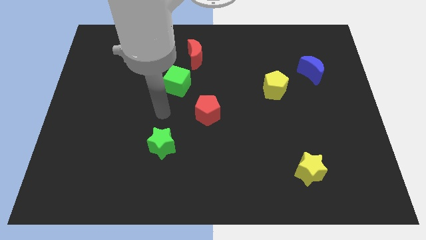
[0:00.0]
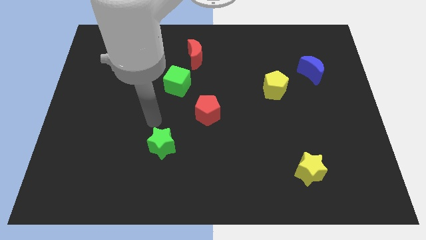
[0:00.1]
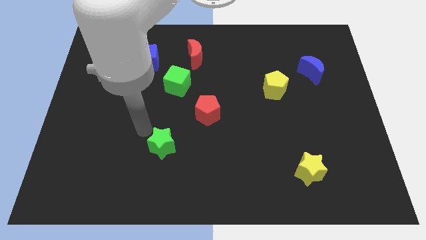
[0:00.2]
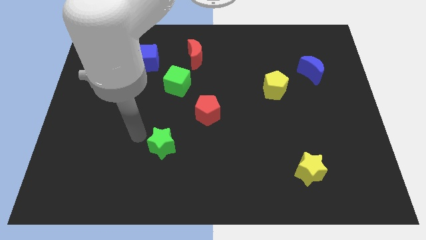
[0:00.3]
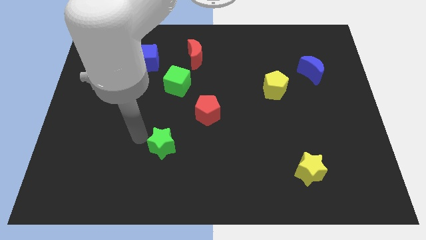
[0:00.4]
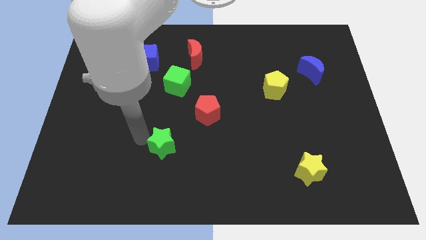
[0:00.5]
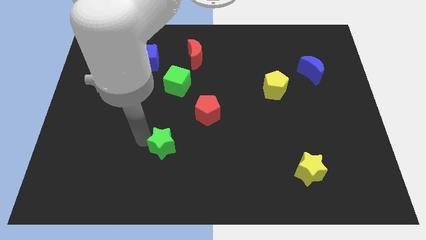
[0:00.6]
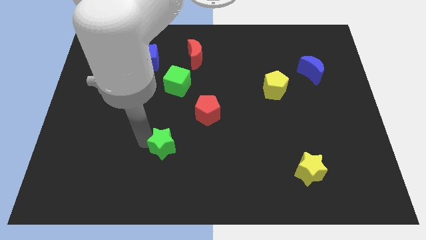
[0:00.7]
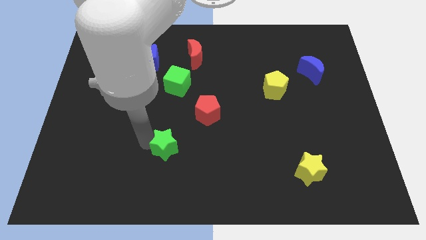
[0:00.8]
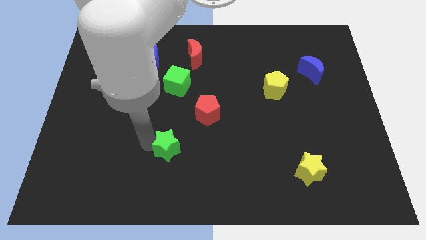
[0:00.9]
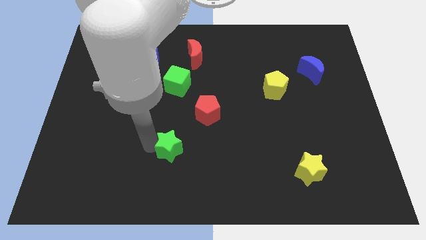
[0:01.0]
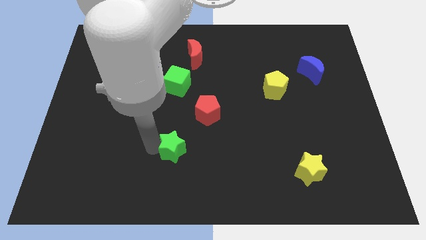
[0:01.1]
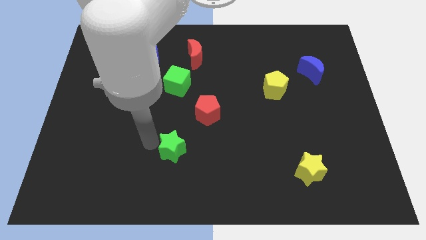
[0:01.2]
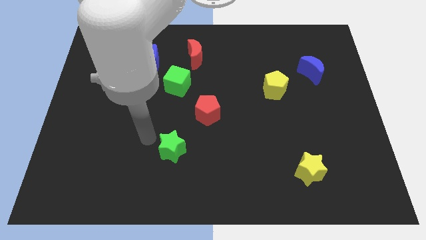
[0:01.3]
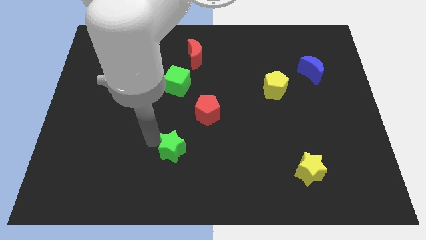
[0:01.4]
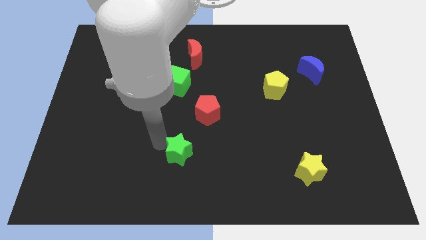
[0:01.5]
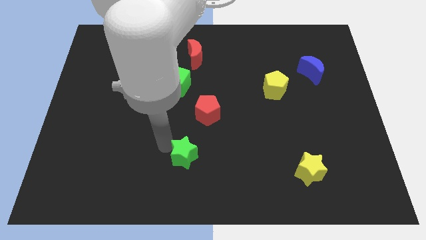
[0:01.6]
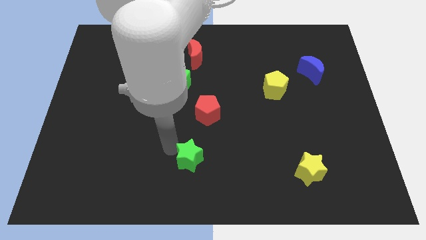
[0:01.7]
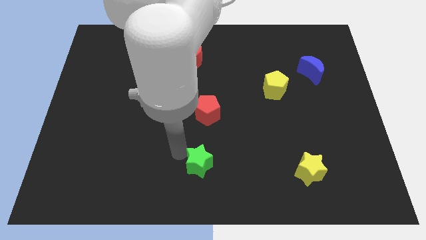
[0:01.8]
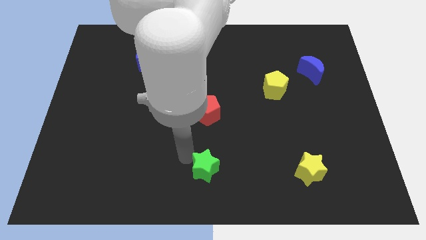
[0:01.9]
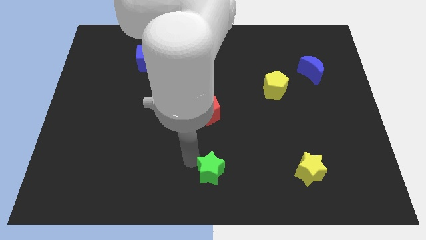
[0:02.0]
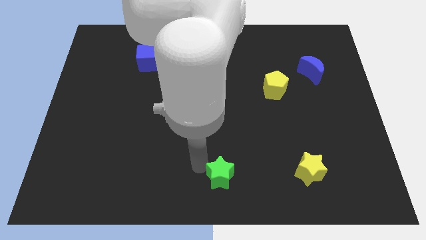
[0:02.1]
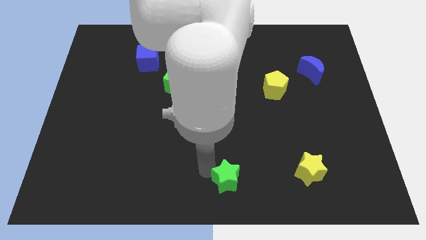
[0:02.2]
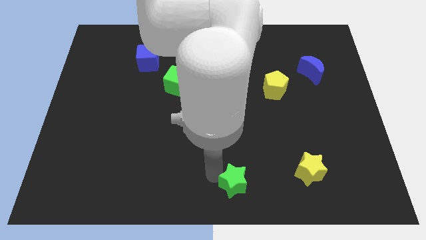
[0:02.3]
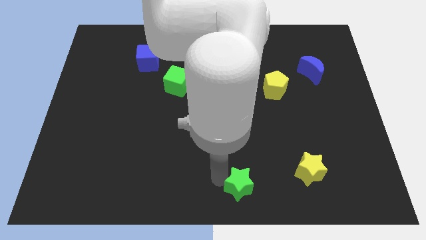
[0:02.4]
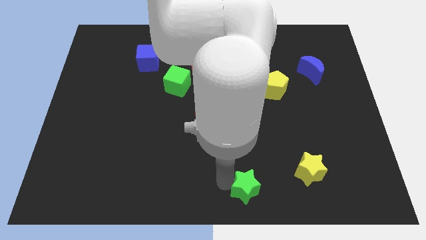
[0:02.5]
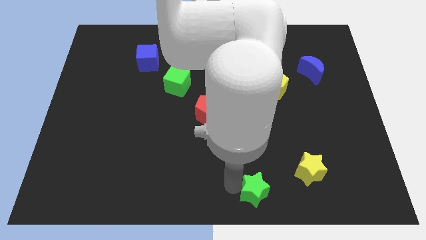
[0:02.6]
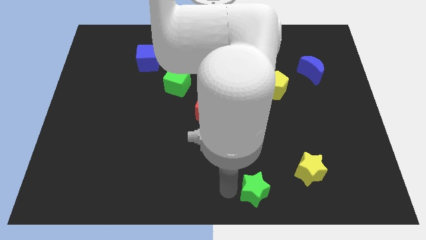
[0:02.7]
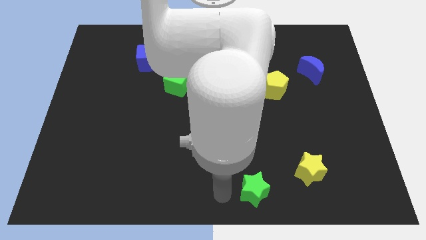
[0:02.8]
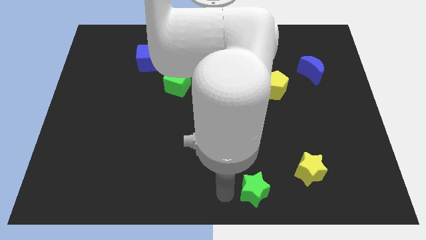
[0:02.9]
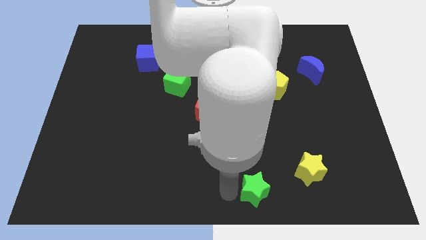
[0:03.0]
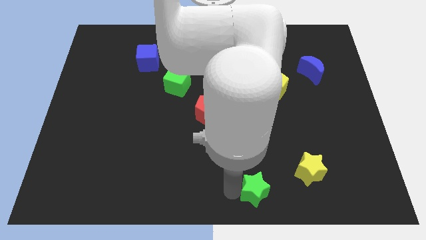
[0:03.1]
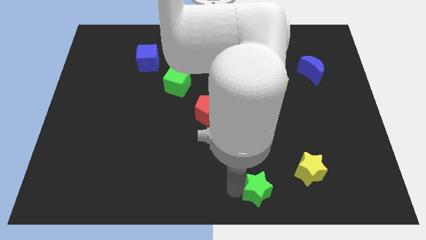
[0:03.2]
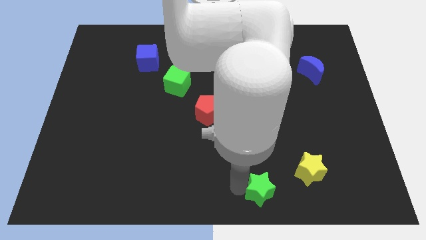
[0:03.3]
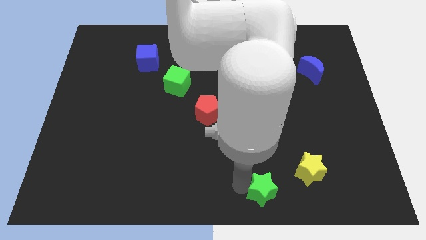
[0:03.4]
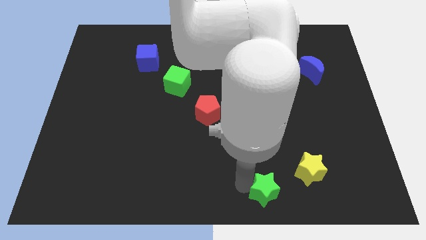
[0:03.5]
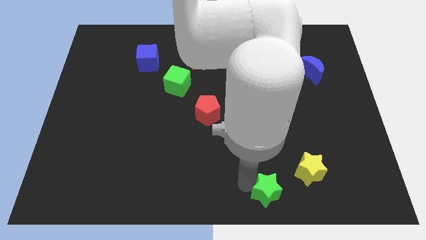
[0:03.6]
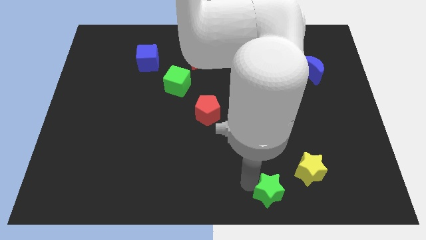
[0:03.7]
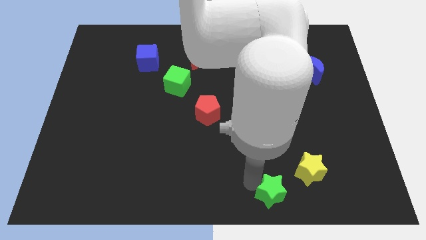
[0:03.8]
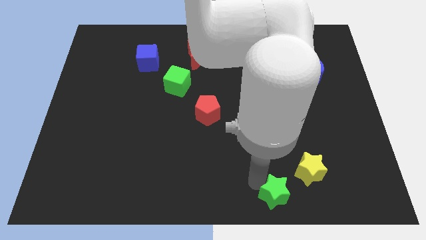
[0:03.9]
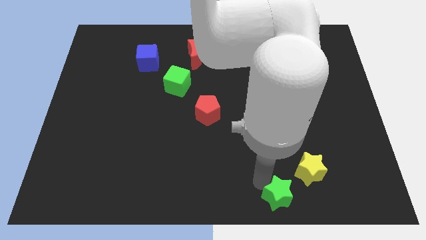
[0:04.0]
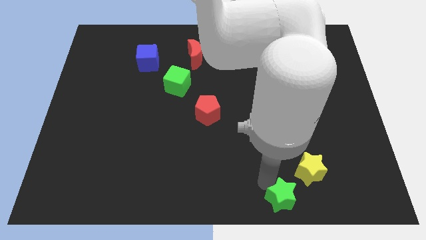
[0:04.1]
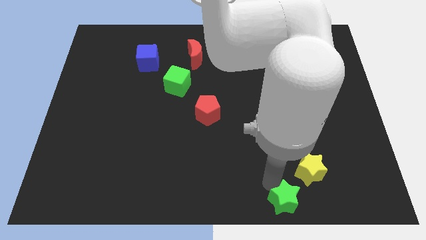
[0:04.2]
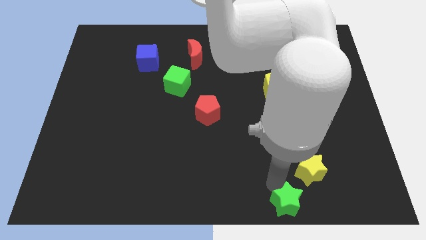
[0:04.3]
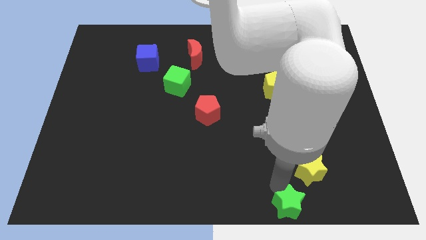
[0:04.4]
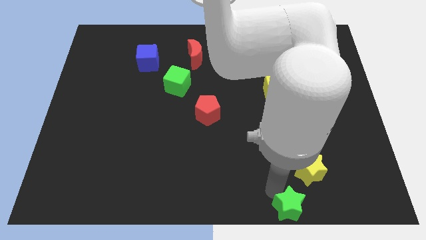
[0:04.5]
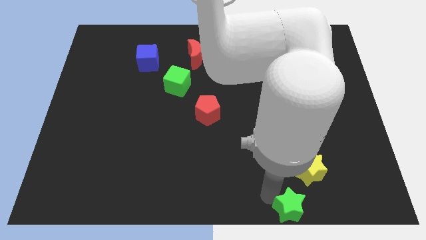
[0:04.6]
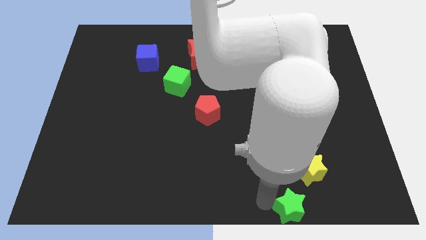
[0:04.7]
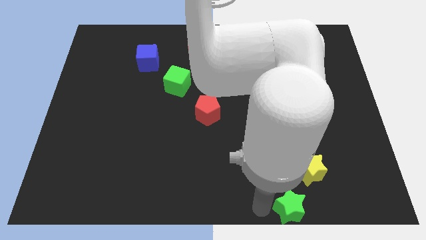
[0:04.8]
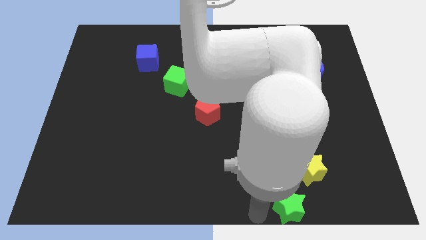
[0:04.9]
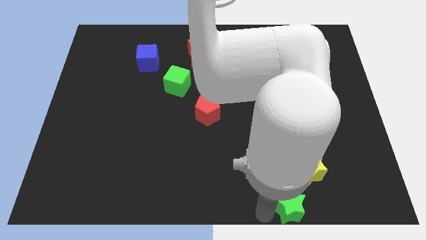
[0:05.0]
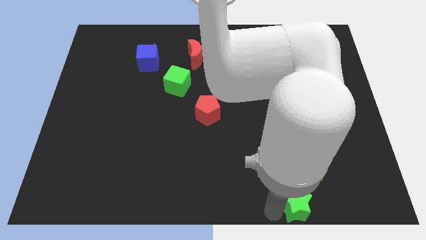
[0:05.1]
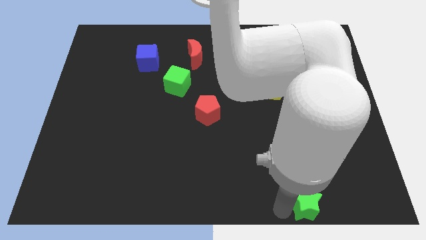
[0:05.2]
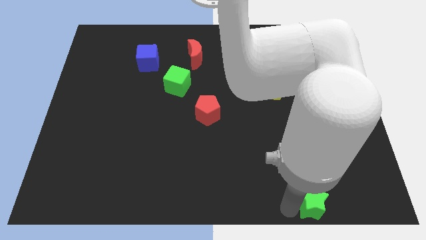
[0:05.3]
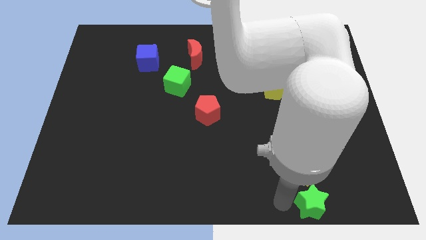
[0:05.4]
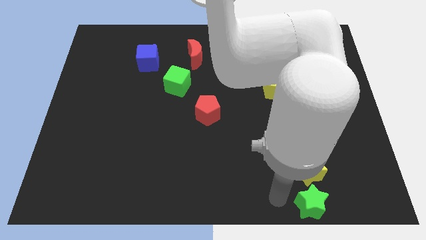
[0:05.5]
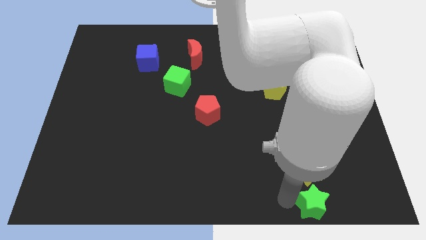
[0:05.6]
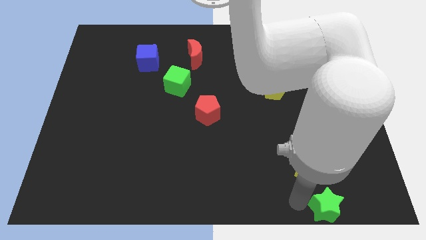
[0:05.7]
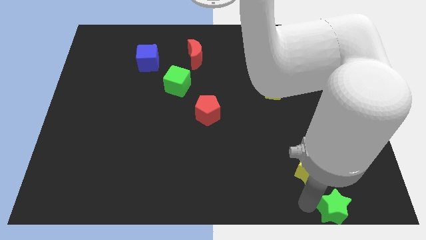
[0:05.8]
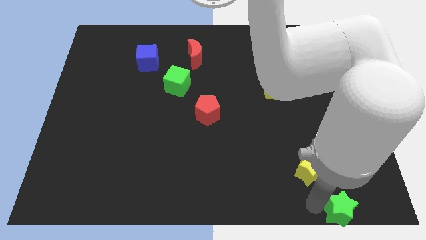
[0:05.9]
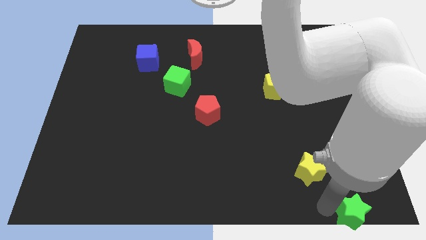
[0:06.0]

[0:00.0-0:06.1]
move the green star to the bottom right
